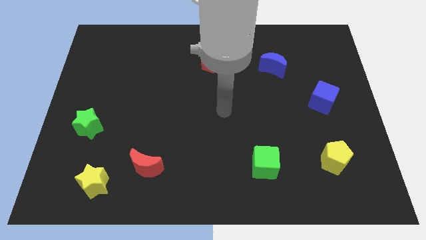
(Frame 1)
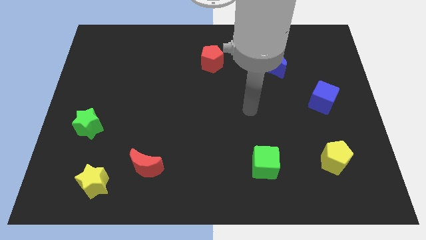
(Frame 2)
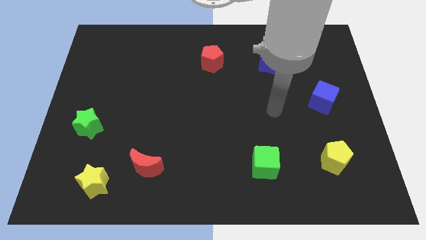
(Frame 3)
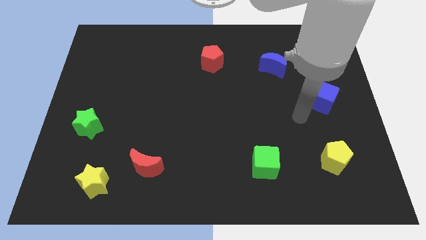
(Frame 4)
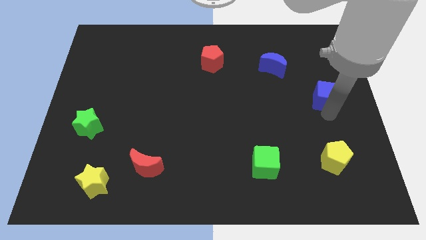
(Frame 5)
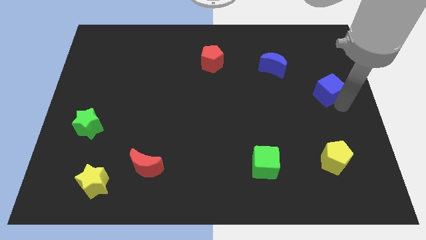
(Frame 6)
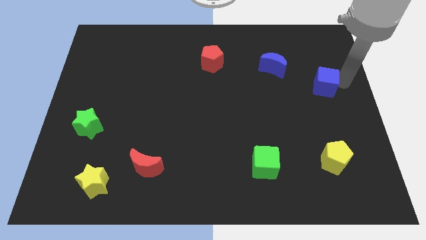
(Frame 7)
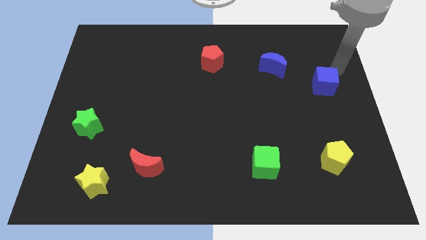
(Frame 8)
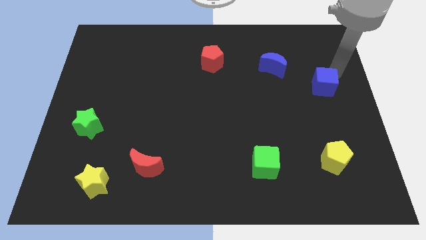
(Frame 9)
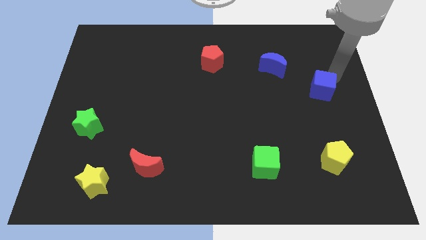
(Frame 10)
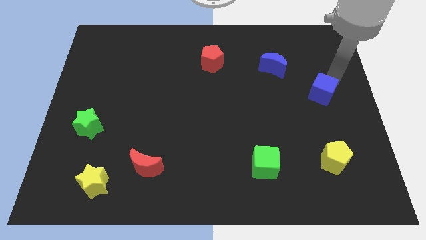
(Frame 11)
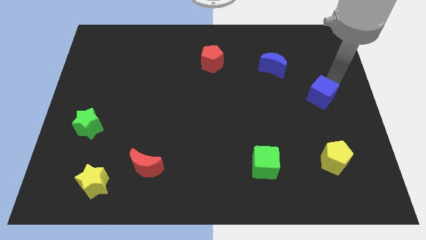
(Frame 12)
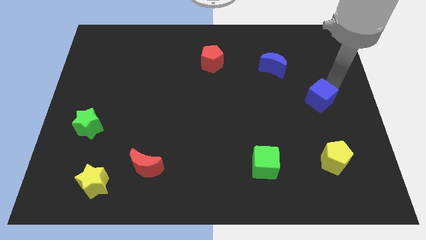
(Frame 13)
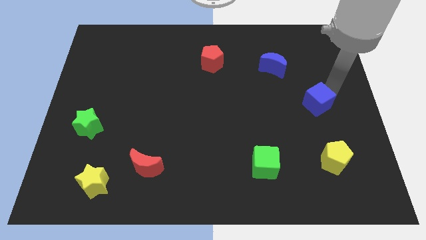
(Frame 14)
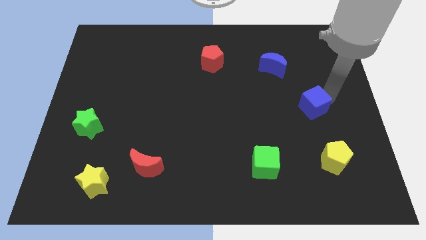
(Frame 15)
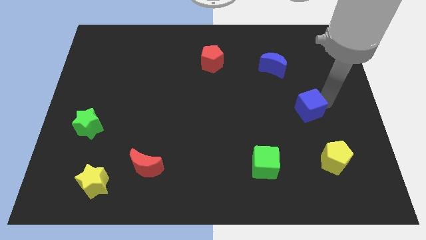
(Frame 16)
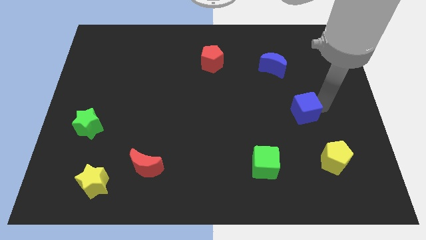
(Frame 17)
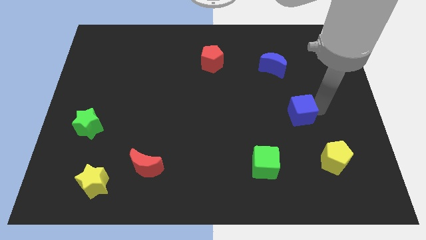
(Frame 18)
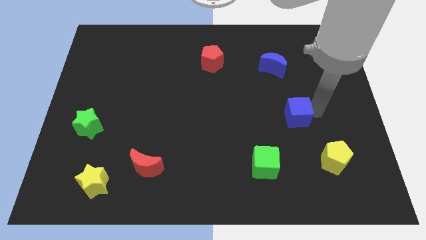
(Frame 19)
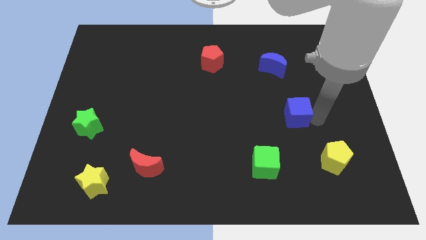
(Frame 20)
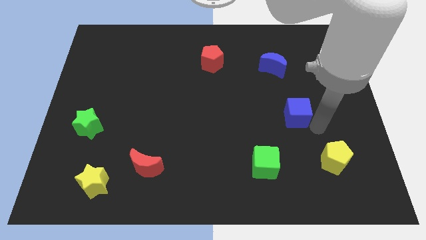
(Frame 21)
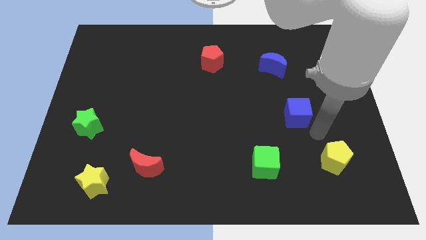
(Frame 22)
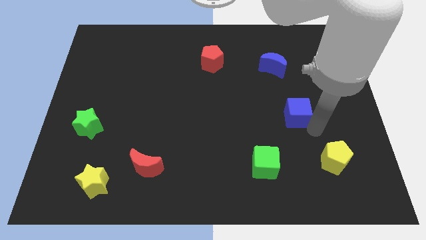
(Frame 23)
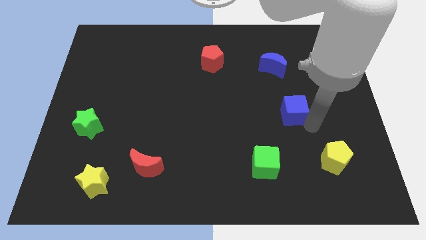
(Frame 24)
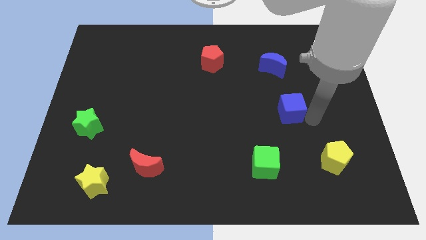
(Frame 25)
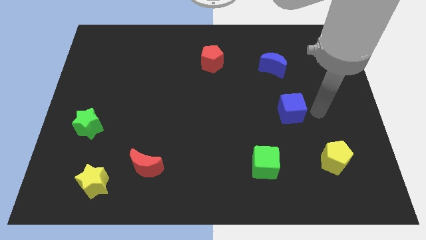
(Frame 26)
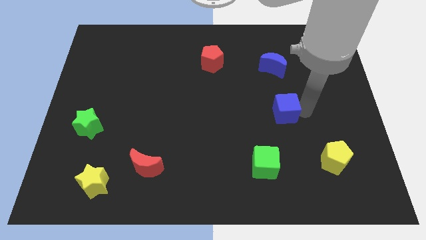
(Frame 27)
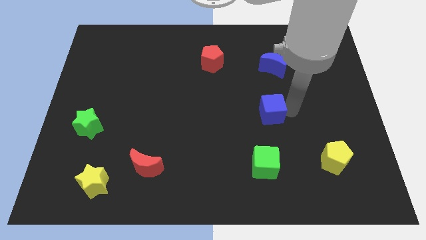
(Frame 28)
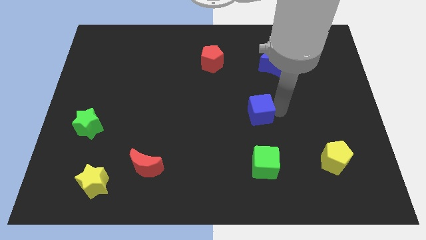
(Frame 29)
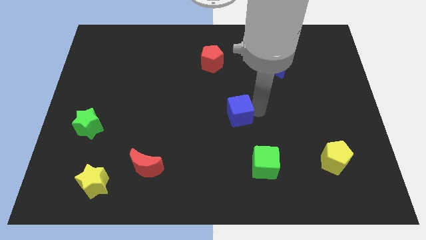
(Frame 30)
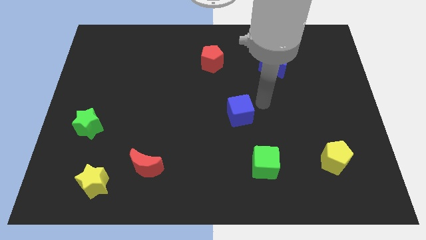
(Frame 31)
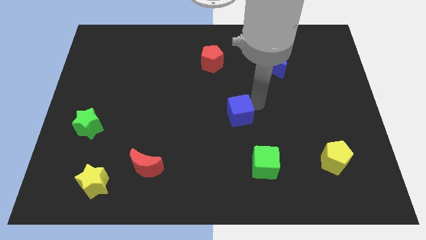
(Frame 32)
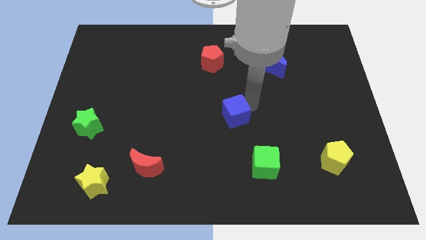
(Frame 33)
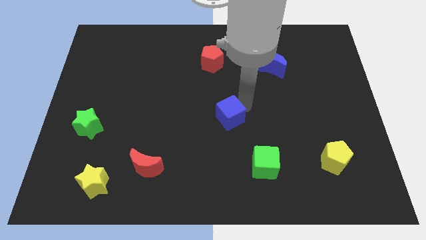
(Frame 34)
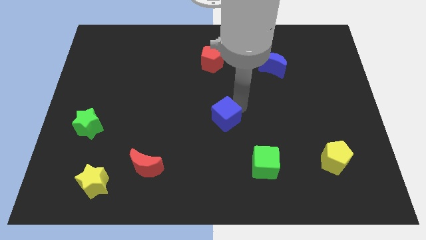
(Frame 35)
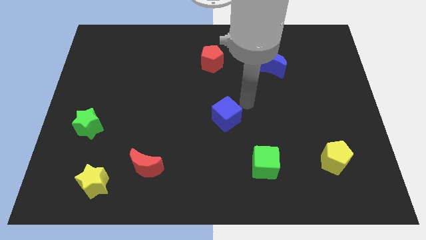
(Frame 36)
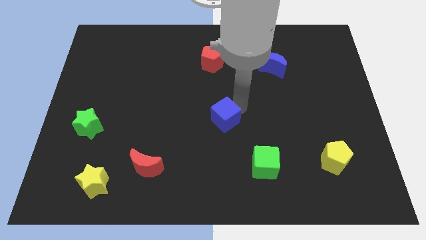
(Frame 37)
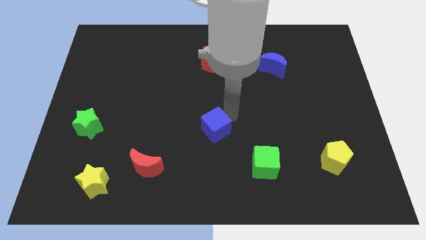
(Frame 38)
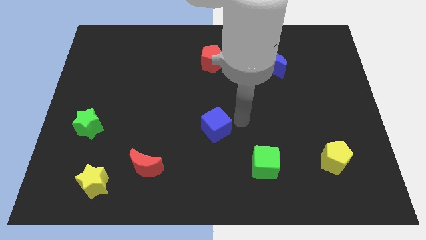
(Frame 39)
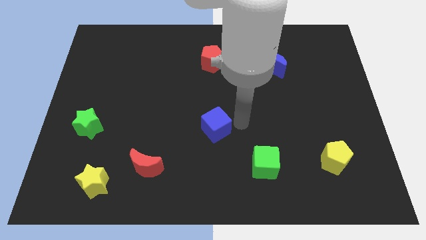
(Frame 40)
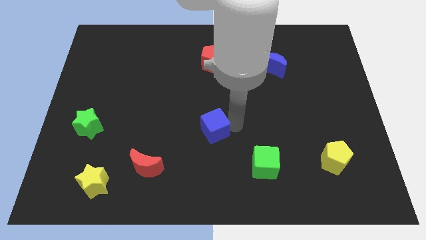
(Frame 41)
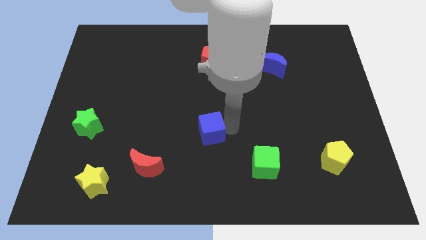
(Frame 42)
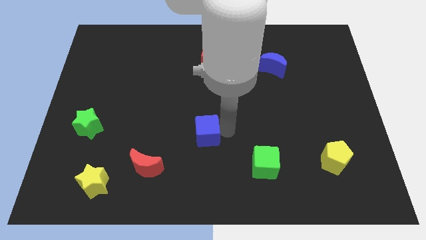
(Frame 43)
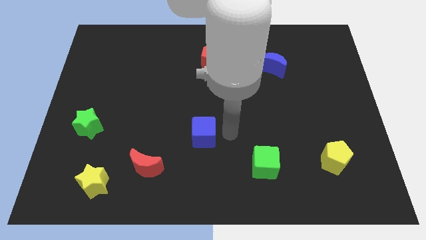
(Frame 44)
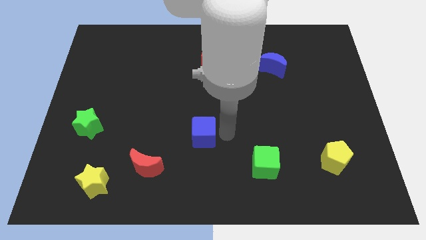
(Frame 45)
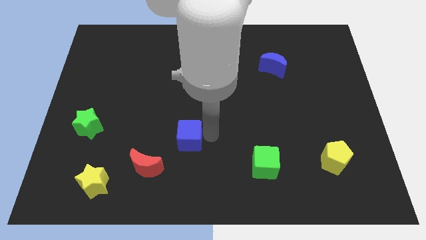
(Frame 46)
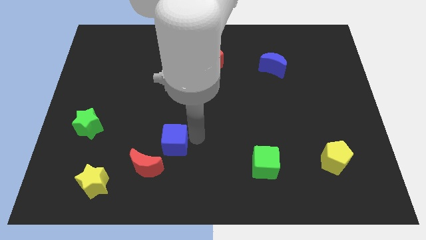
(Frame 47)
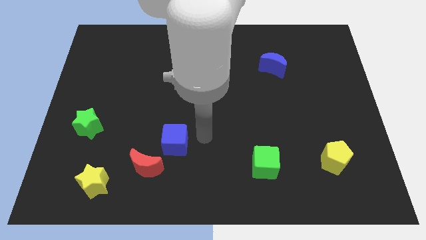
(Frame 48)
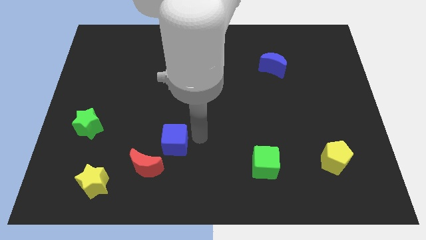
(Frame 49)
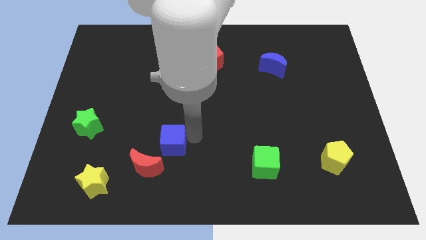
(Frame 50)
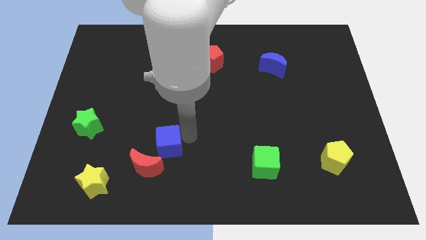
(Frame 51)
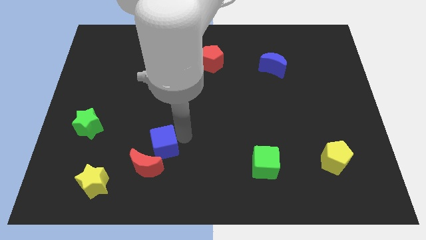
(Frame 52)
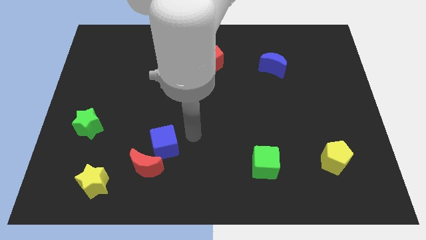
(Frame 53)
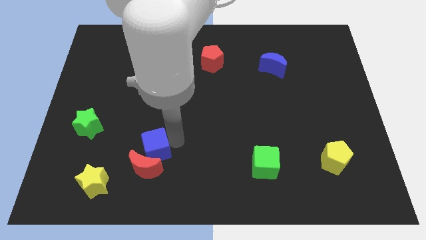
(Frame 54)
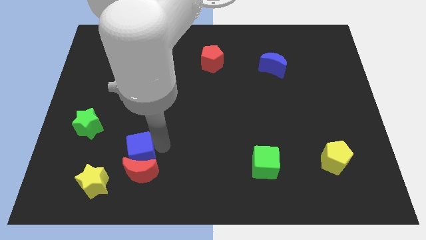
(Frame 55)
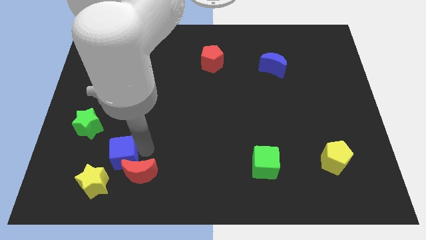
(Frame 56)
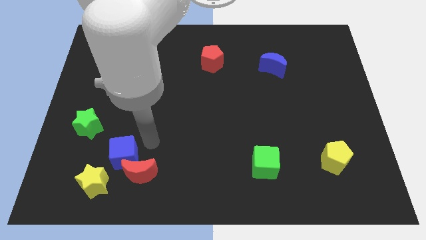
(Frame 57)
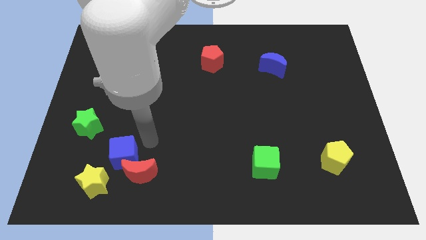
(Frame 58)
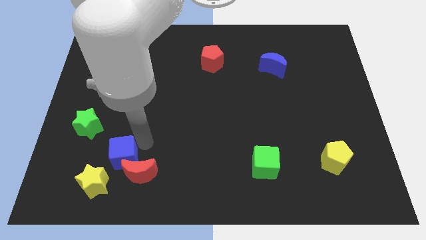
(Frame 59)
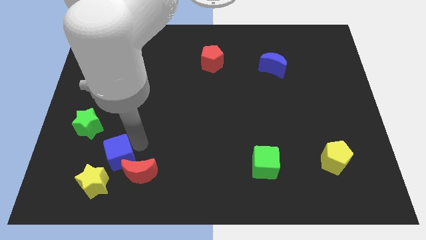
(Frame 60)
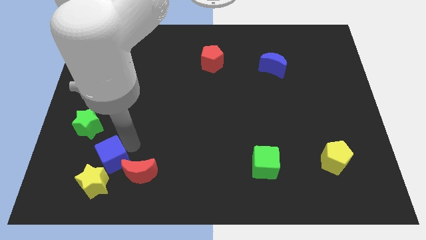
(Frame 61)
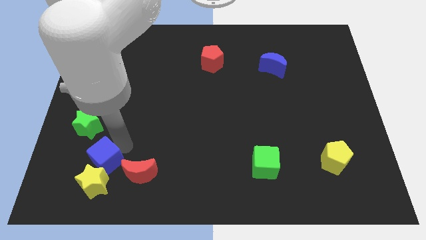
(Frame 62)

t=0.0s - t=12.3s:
slide the blue cube to the yellow star

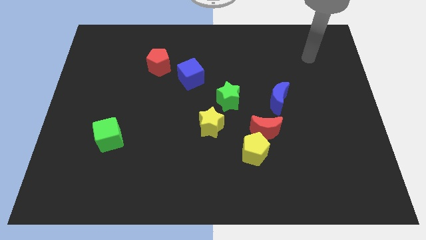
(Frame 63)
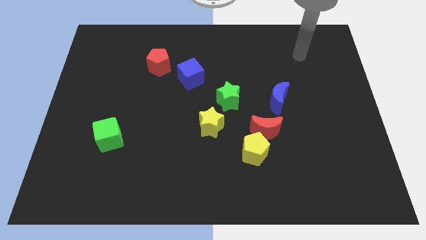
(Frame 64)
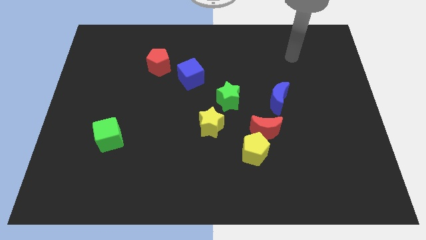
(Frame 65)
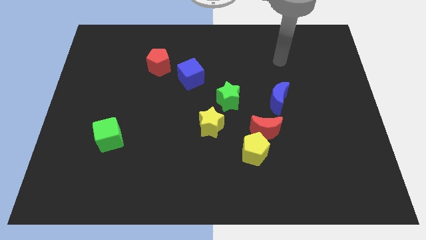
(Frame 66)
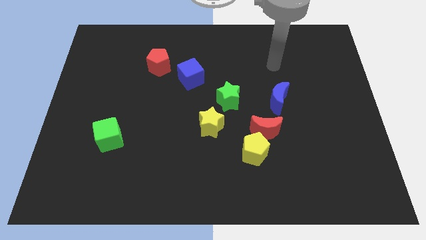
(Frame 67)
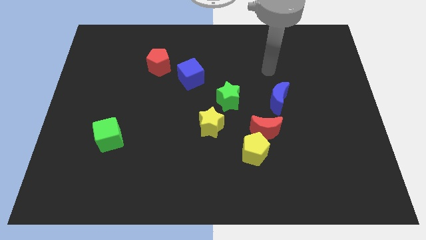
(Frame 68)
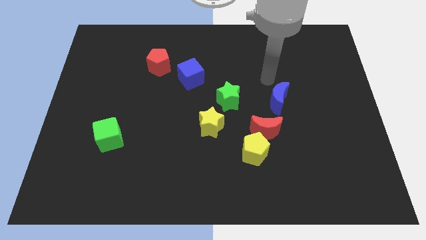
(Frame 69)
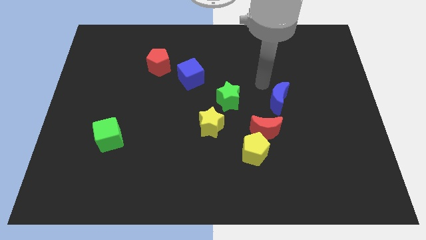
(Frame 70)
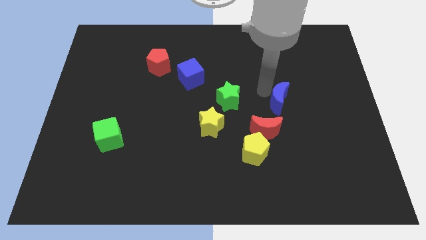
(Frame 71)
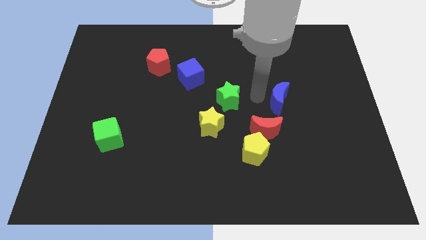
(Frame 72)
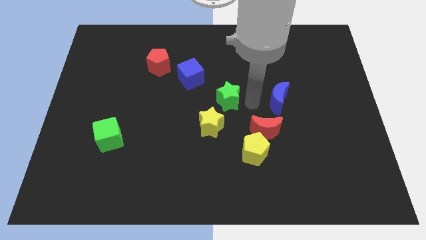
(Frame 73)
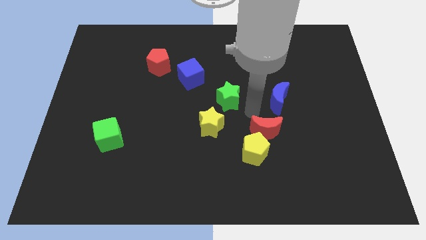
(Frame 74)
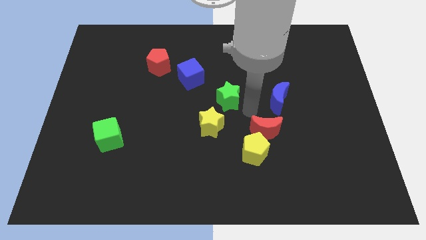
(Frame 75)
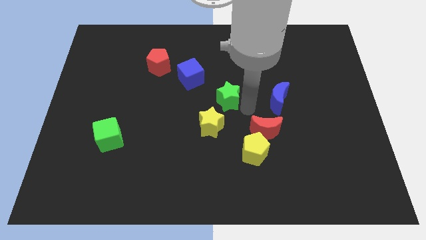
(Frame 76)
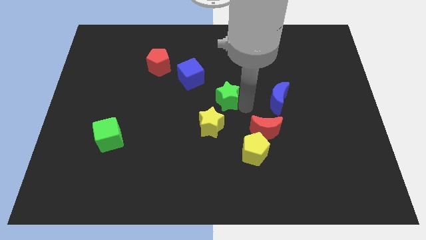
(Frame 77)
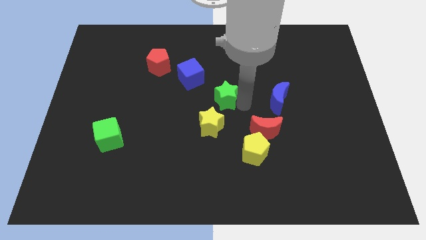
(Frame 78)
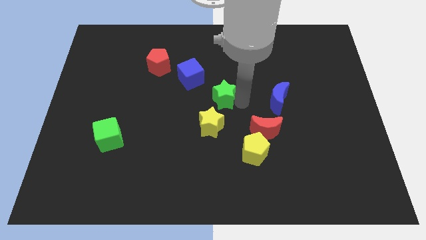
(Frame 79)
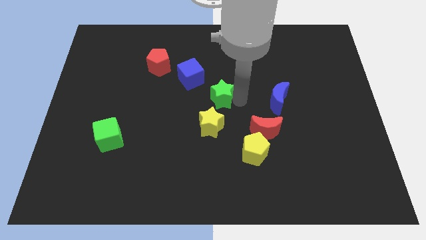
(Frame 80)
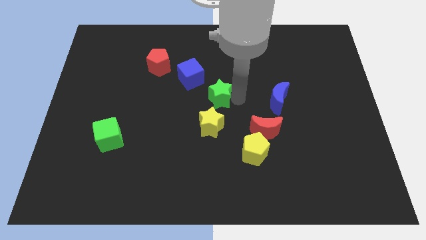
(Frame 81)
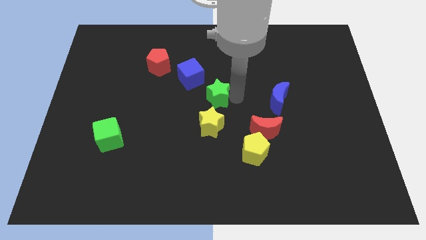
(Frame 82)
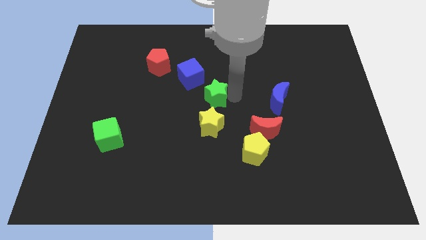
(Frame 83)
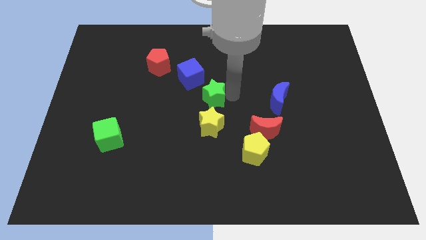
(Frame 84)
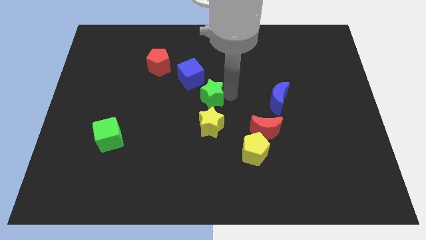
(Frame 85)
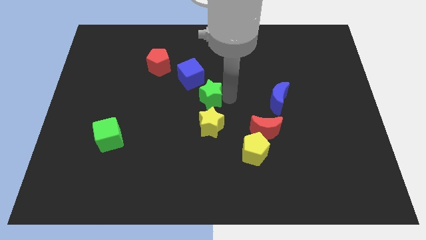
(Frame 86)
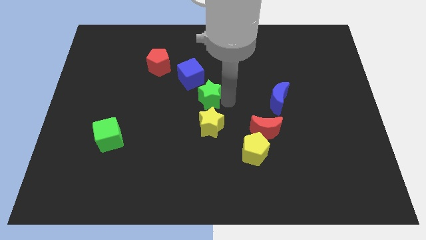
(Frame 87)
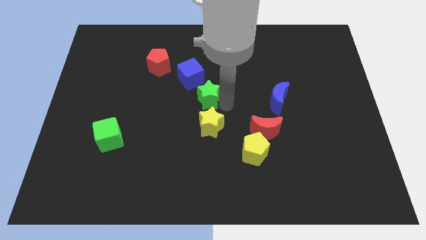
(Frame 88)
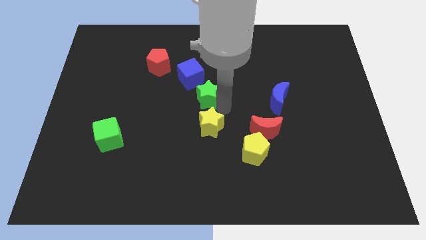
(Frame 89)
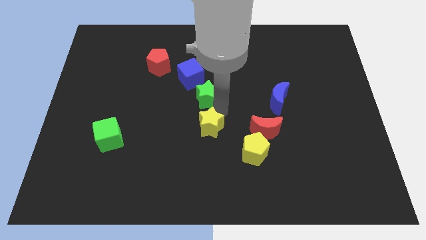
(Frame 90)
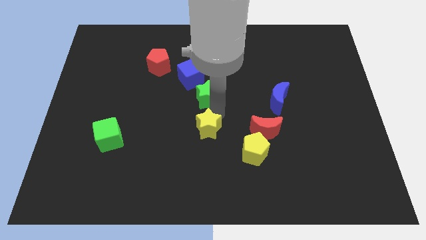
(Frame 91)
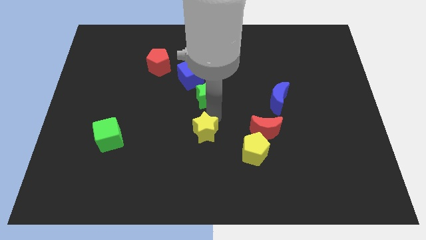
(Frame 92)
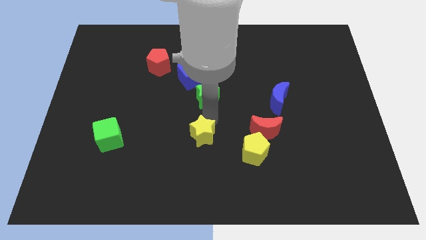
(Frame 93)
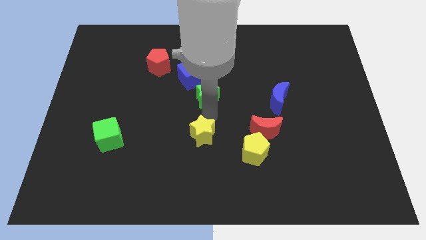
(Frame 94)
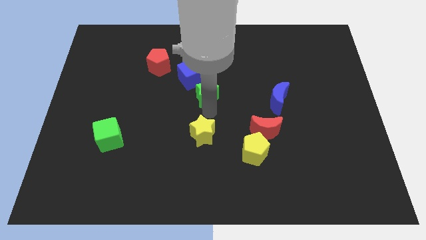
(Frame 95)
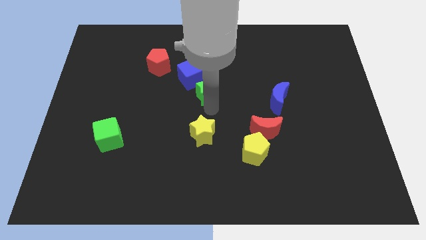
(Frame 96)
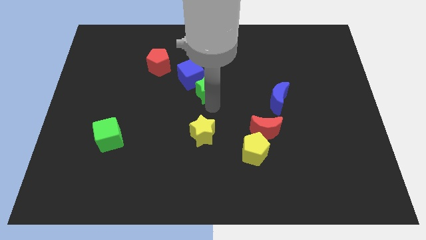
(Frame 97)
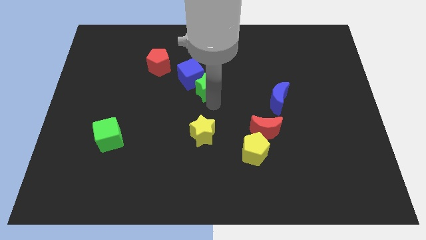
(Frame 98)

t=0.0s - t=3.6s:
move the green star next to the blue cube
